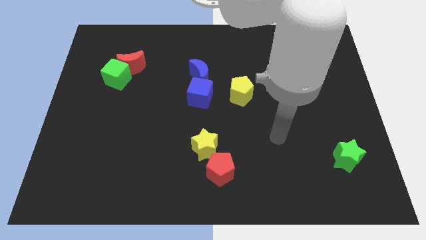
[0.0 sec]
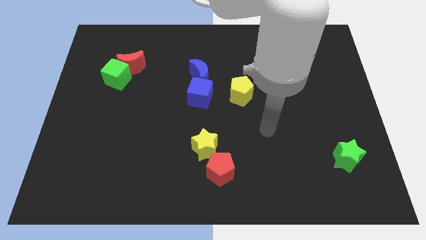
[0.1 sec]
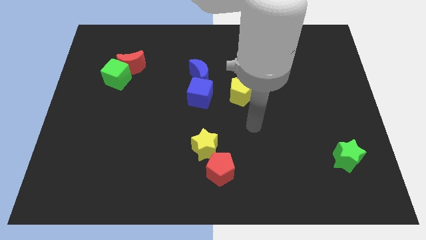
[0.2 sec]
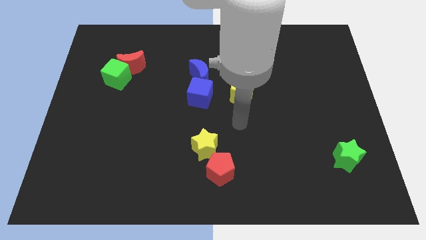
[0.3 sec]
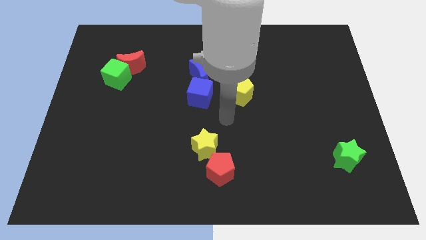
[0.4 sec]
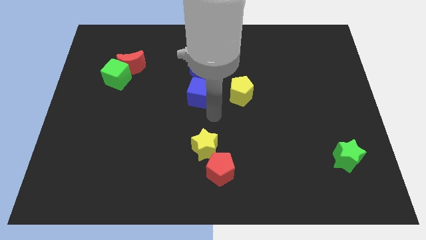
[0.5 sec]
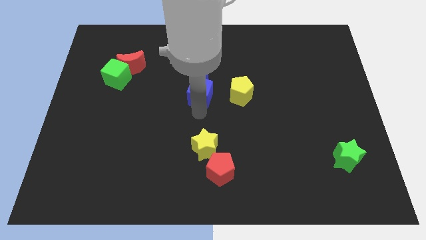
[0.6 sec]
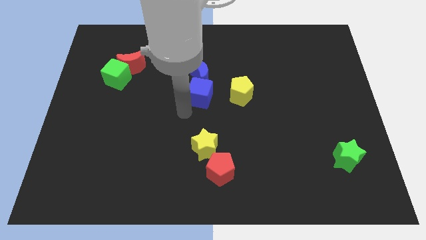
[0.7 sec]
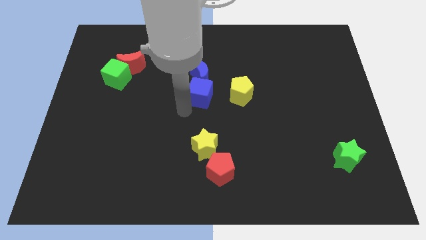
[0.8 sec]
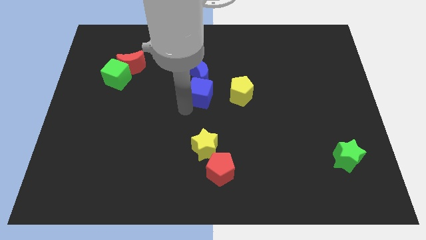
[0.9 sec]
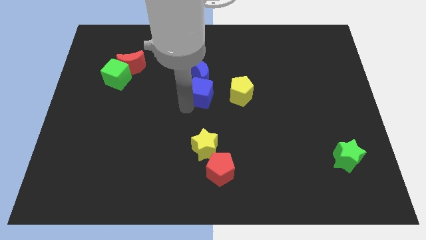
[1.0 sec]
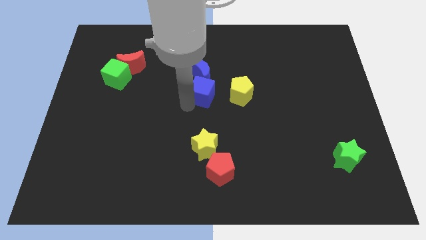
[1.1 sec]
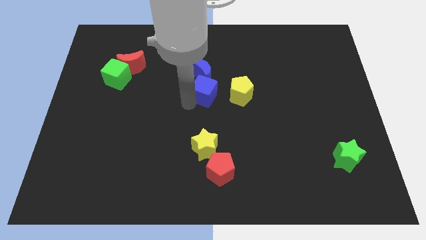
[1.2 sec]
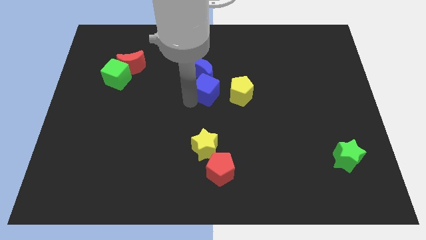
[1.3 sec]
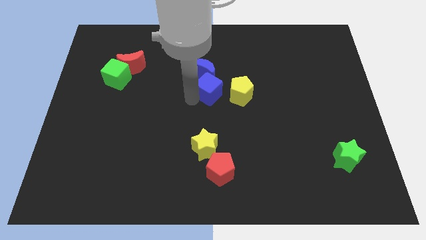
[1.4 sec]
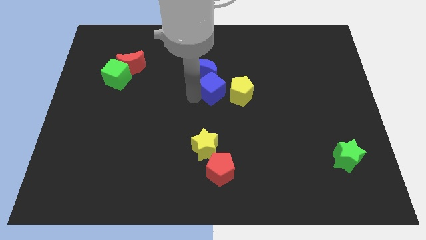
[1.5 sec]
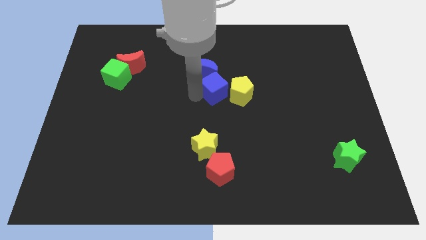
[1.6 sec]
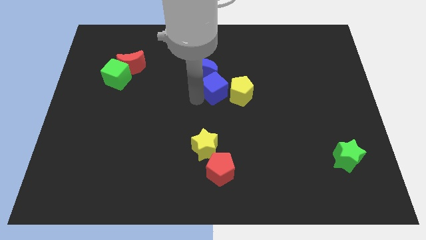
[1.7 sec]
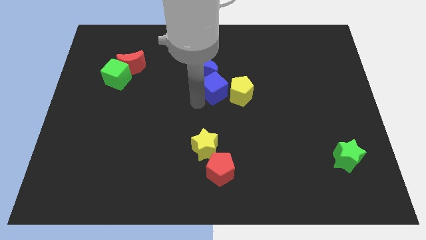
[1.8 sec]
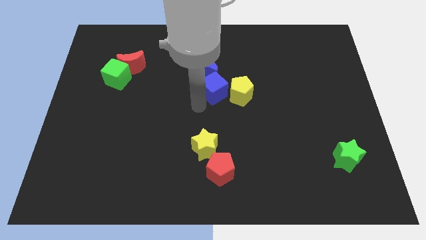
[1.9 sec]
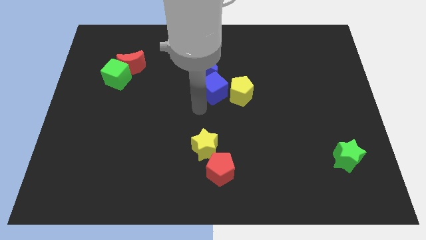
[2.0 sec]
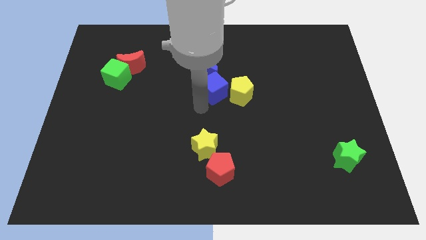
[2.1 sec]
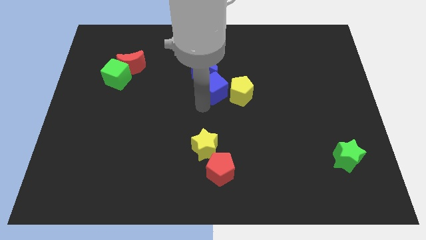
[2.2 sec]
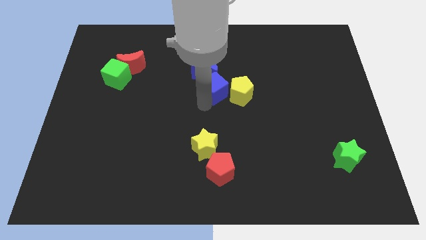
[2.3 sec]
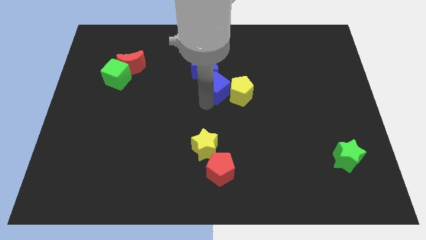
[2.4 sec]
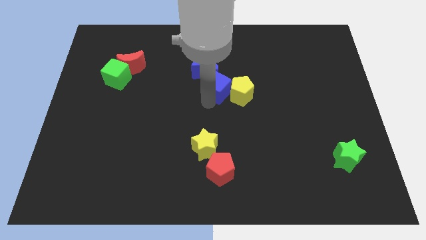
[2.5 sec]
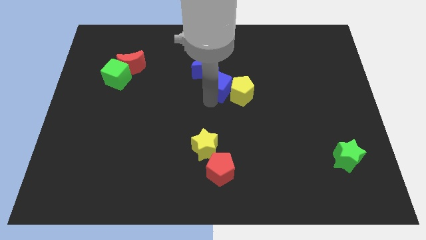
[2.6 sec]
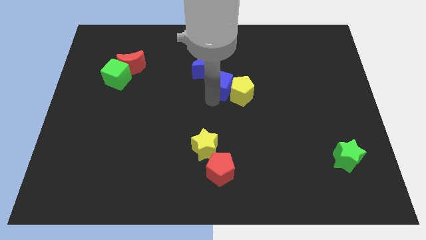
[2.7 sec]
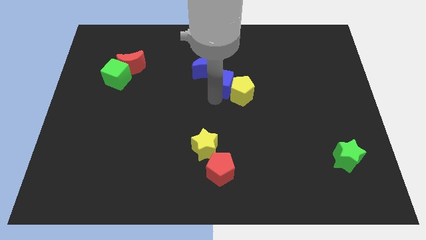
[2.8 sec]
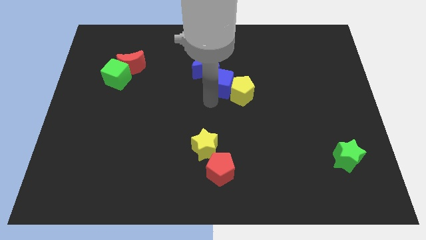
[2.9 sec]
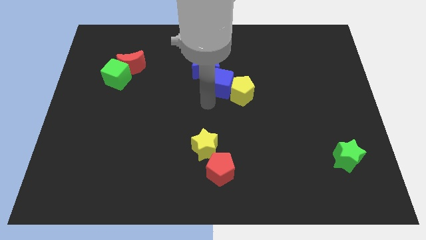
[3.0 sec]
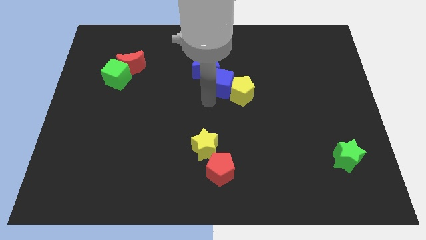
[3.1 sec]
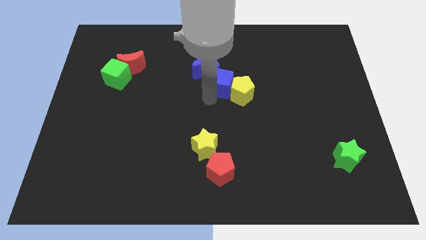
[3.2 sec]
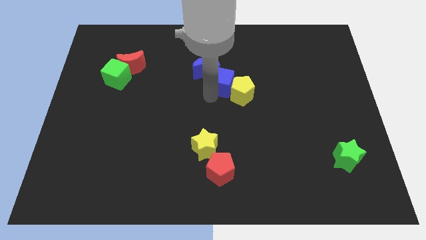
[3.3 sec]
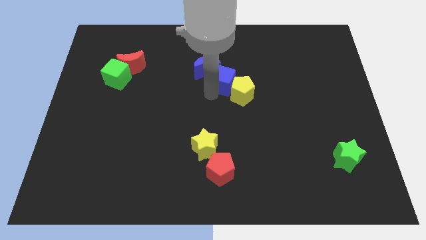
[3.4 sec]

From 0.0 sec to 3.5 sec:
push the blue cube diagonally upwards and right somewhat

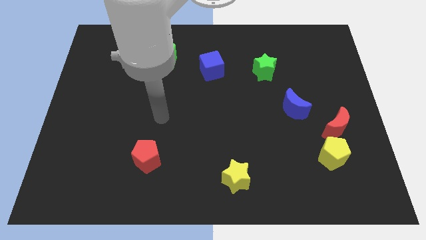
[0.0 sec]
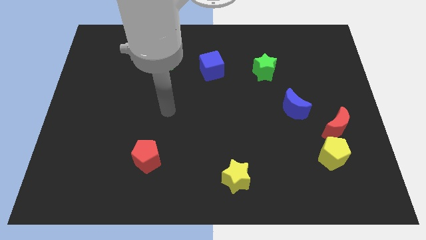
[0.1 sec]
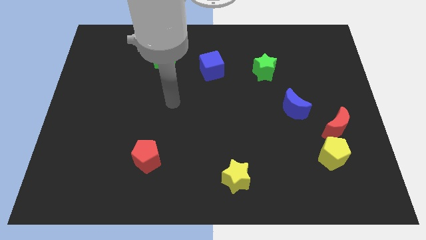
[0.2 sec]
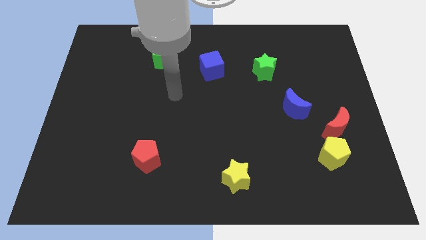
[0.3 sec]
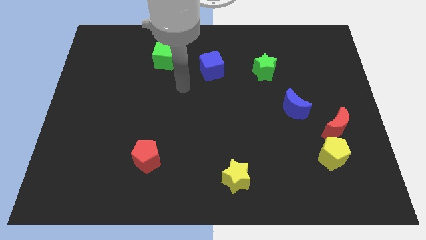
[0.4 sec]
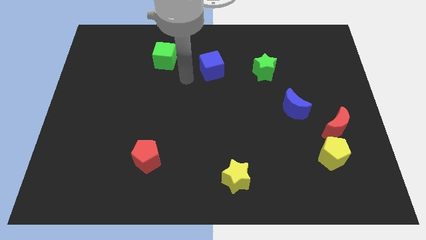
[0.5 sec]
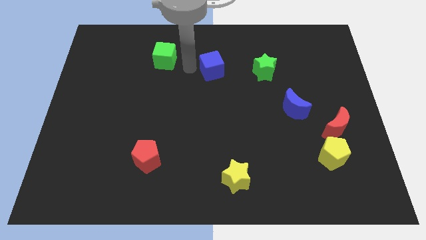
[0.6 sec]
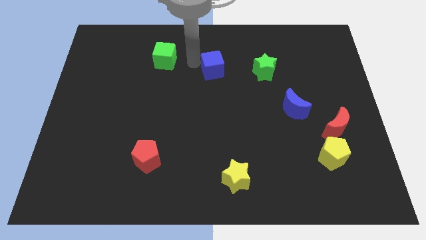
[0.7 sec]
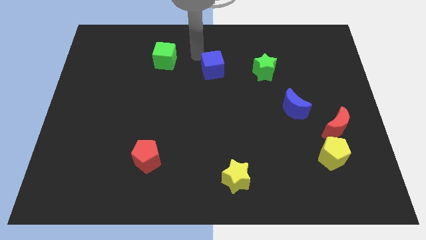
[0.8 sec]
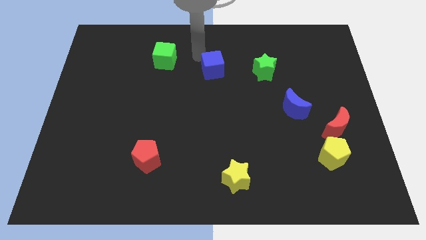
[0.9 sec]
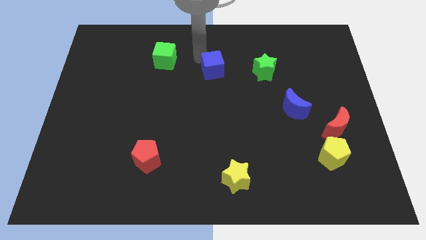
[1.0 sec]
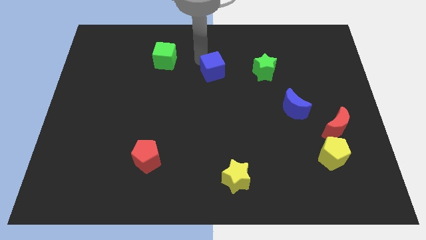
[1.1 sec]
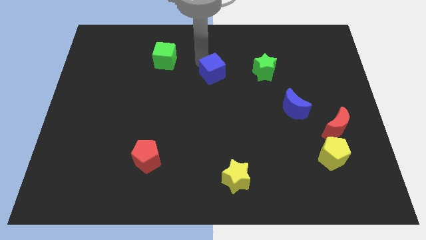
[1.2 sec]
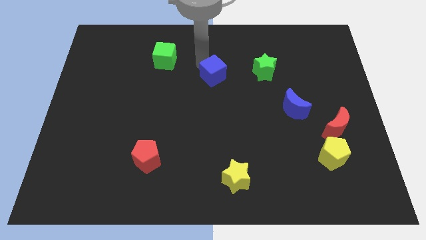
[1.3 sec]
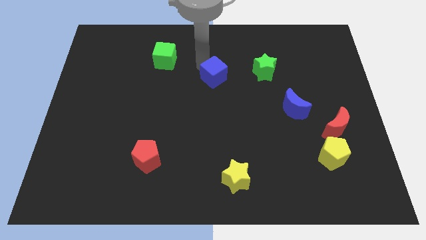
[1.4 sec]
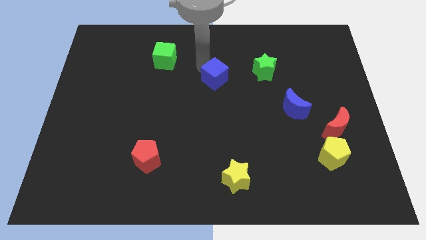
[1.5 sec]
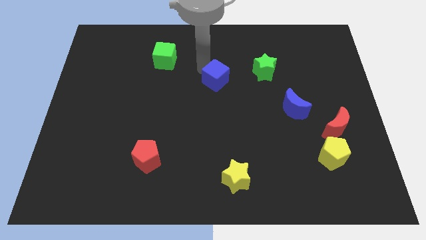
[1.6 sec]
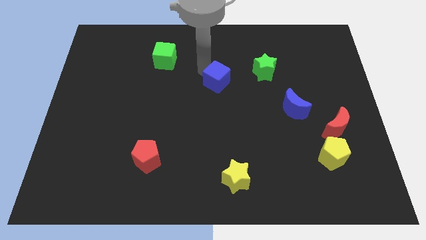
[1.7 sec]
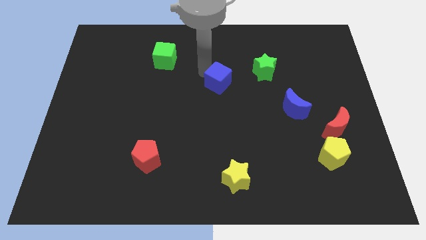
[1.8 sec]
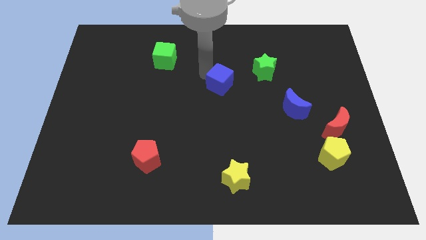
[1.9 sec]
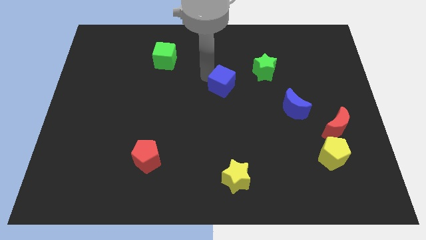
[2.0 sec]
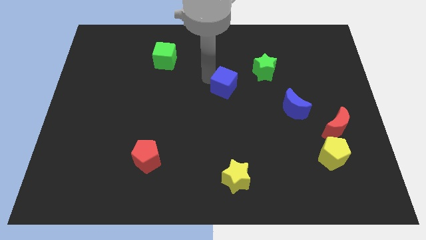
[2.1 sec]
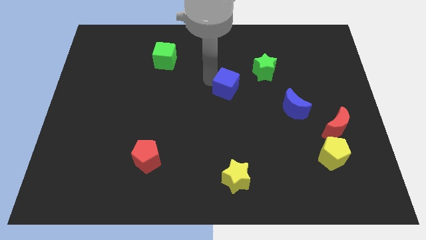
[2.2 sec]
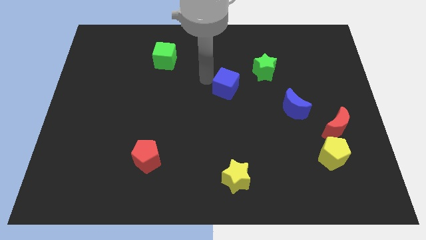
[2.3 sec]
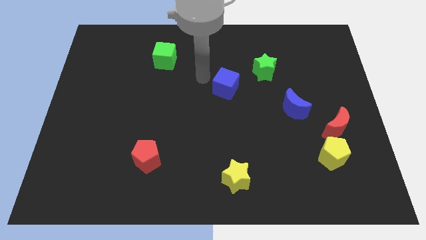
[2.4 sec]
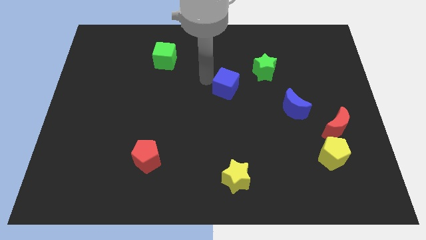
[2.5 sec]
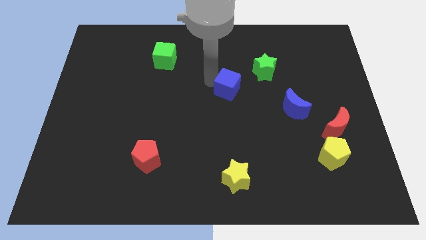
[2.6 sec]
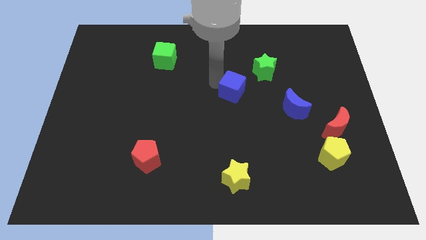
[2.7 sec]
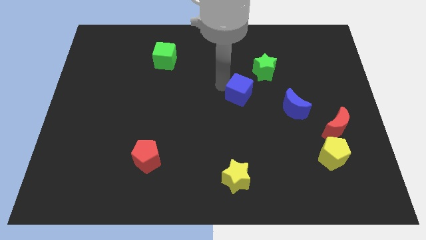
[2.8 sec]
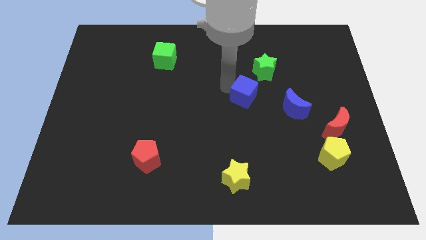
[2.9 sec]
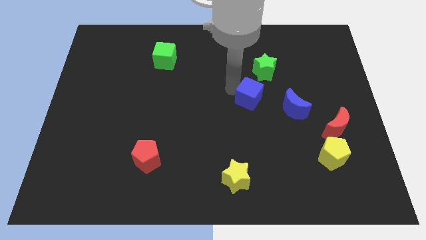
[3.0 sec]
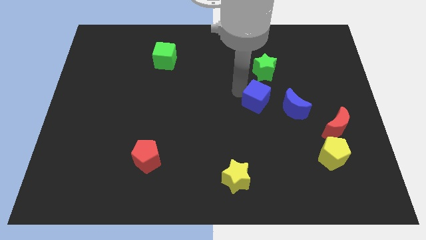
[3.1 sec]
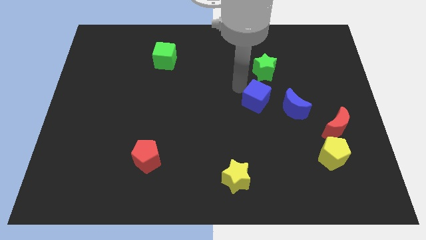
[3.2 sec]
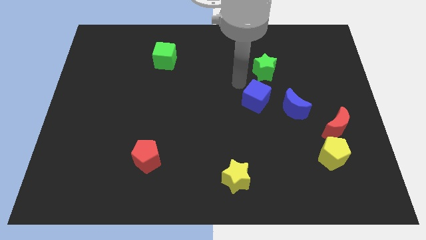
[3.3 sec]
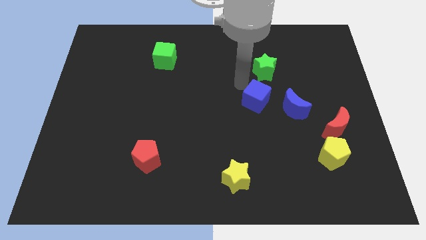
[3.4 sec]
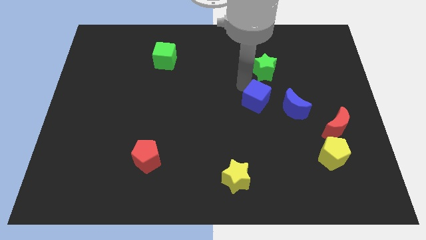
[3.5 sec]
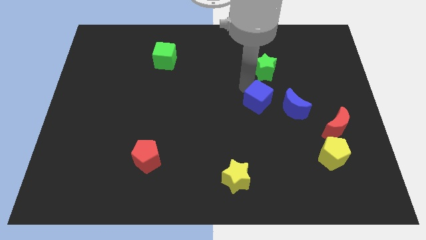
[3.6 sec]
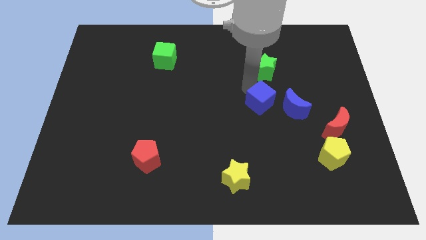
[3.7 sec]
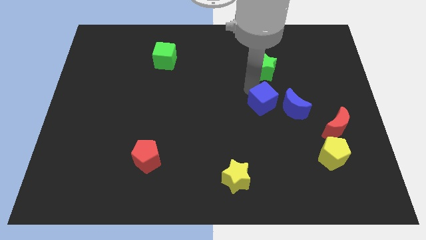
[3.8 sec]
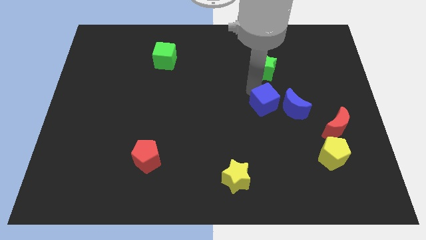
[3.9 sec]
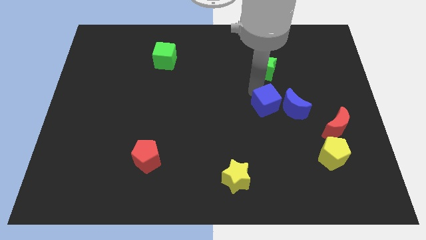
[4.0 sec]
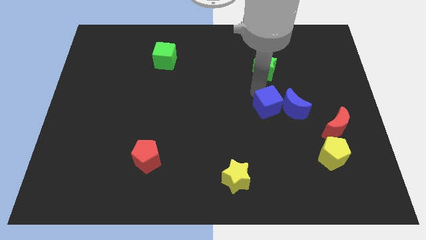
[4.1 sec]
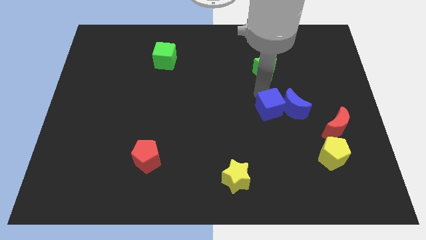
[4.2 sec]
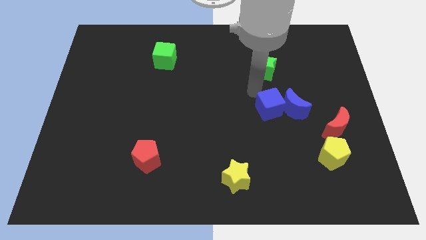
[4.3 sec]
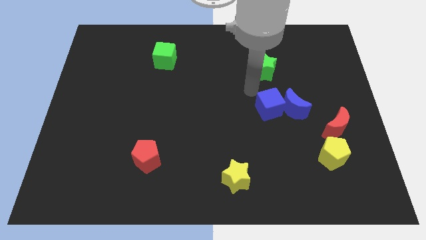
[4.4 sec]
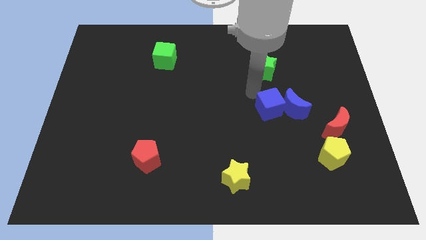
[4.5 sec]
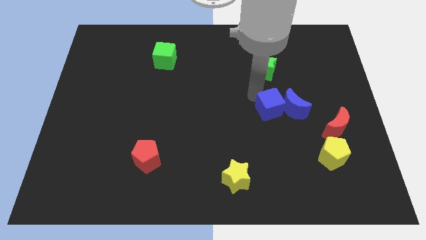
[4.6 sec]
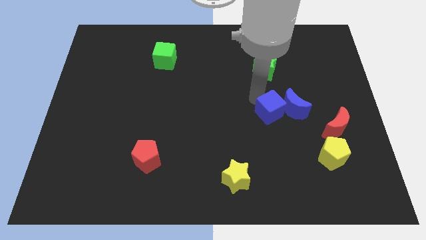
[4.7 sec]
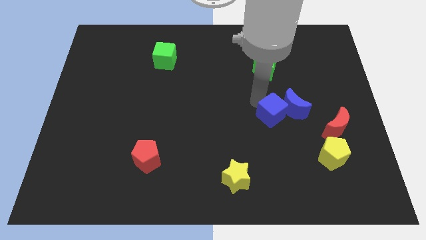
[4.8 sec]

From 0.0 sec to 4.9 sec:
slide the blue cube down and right diagonally
